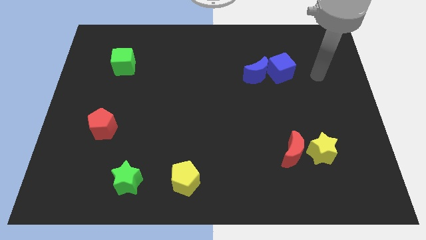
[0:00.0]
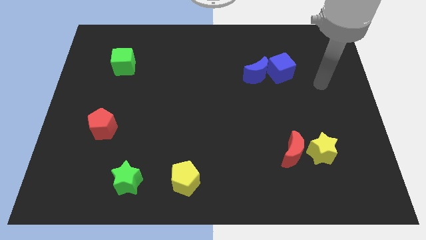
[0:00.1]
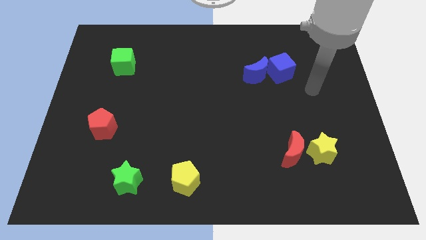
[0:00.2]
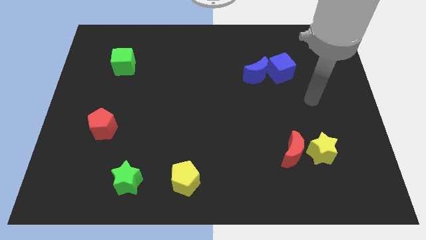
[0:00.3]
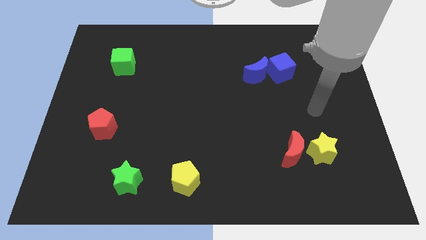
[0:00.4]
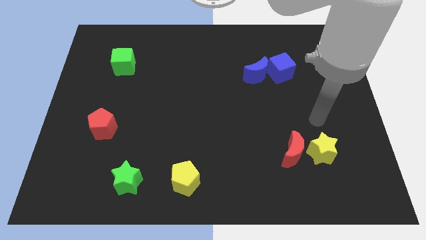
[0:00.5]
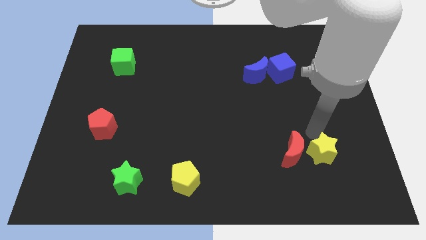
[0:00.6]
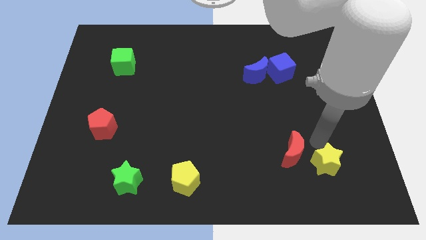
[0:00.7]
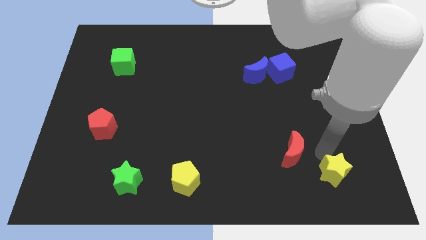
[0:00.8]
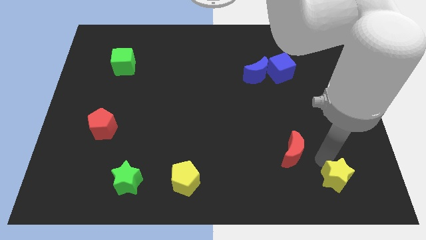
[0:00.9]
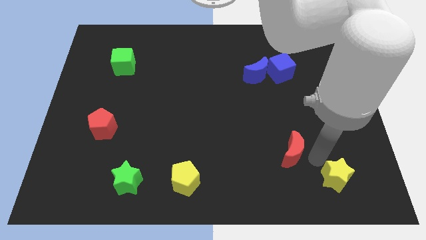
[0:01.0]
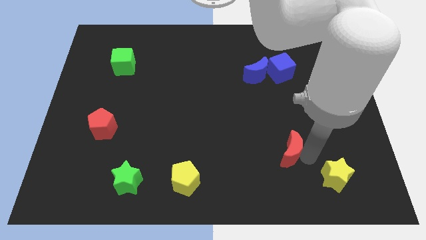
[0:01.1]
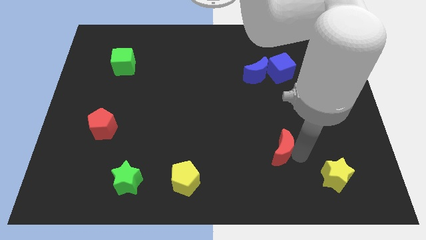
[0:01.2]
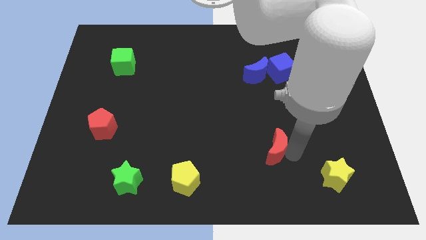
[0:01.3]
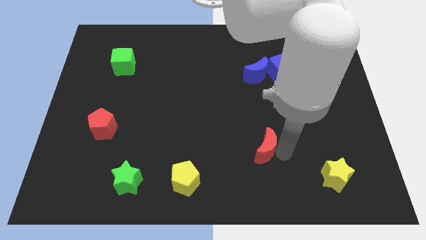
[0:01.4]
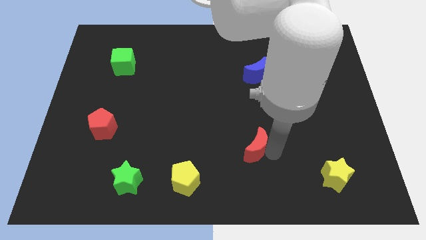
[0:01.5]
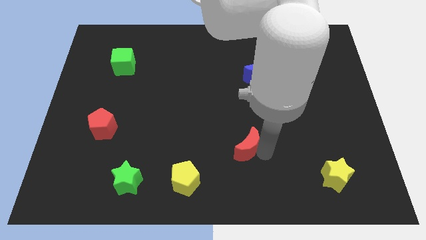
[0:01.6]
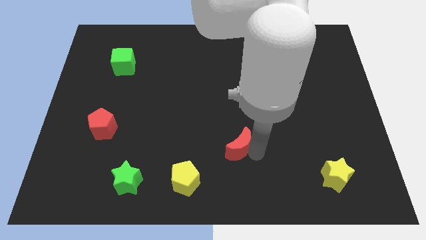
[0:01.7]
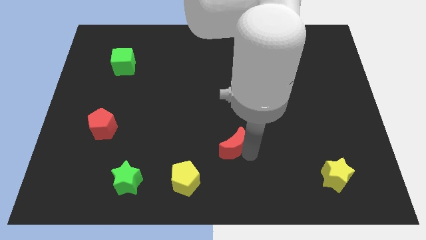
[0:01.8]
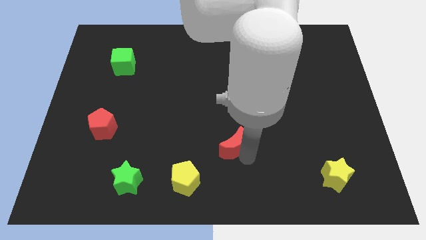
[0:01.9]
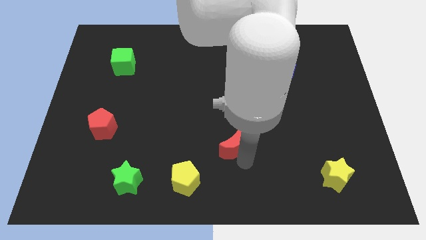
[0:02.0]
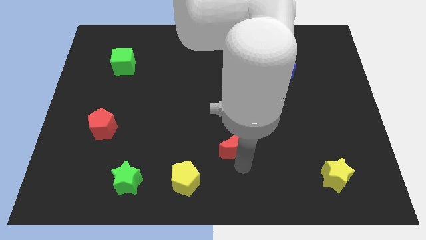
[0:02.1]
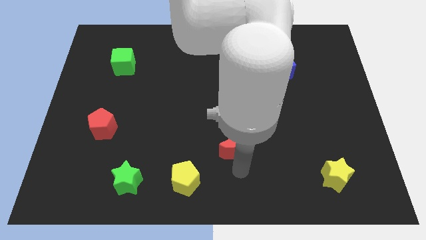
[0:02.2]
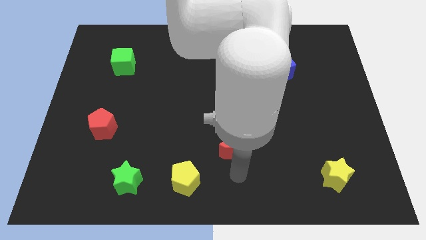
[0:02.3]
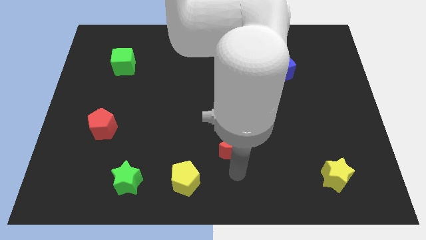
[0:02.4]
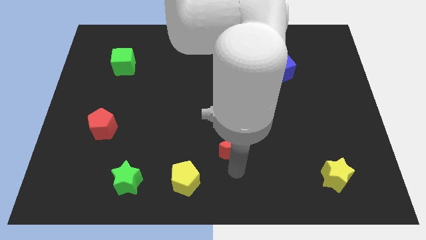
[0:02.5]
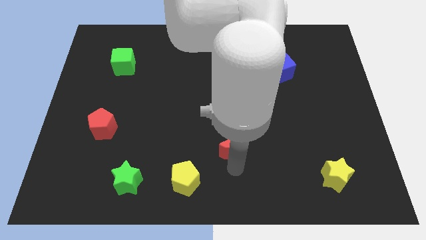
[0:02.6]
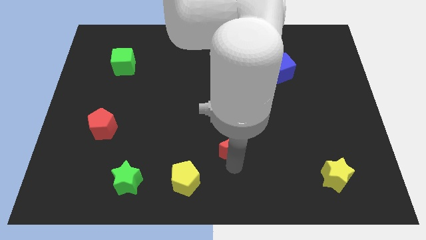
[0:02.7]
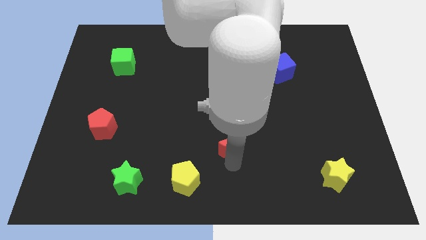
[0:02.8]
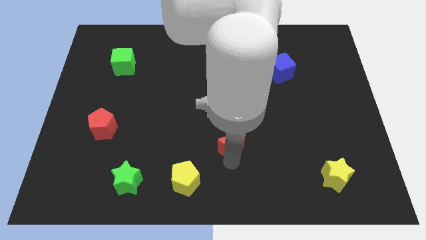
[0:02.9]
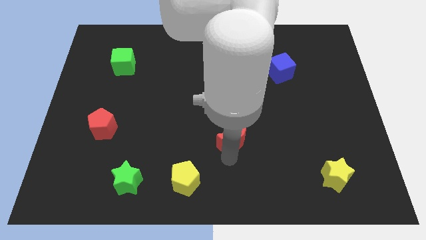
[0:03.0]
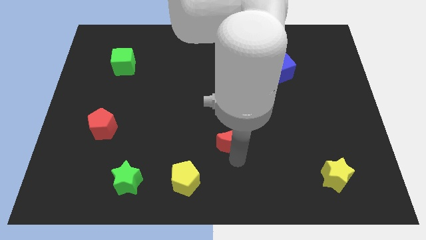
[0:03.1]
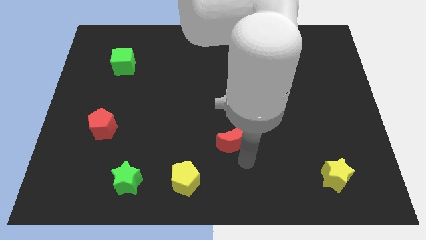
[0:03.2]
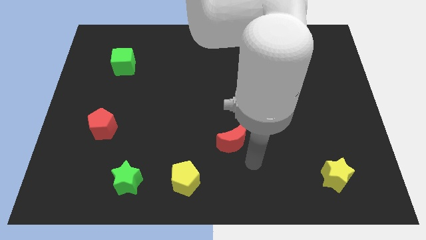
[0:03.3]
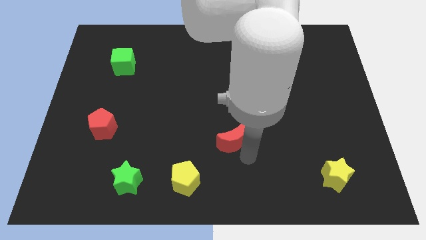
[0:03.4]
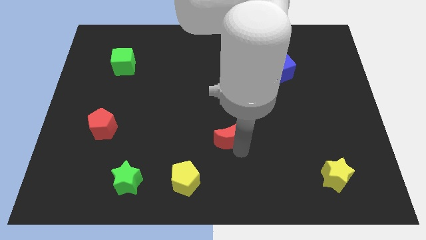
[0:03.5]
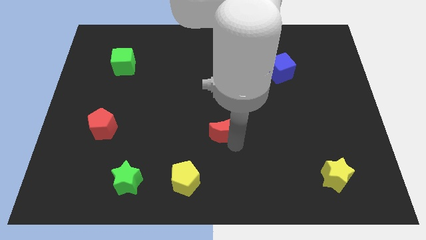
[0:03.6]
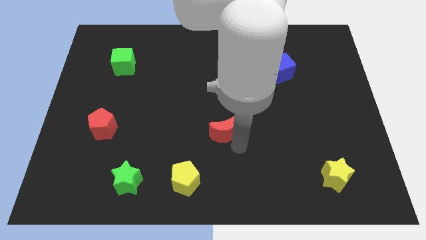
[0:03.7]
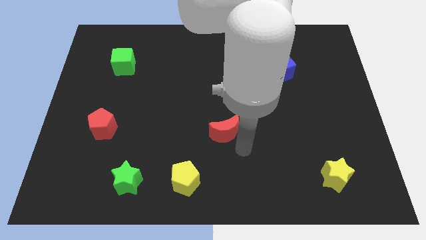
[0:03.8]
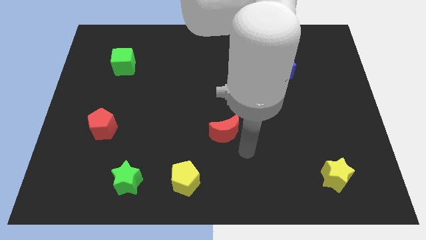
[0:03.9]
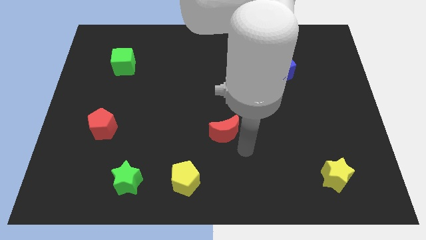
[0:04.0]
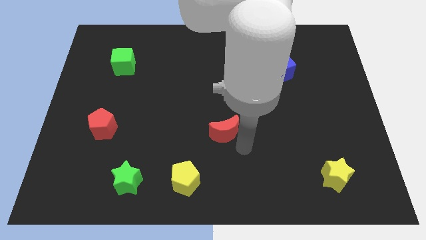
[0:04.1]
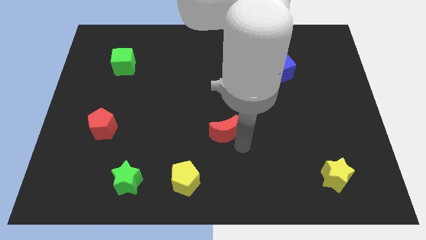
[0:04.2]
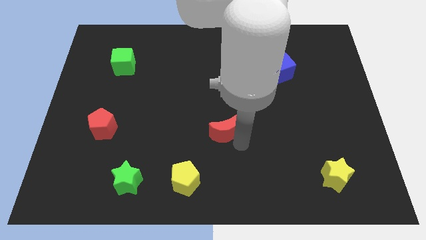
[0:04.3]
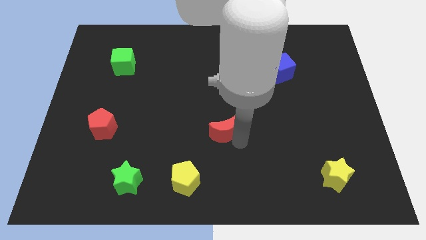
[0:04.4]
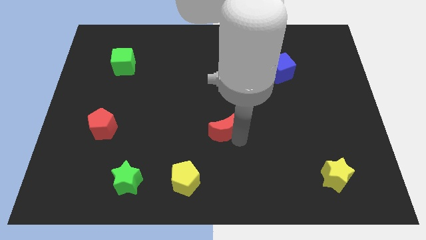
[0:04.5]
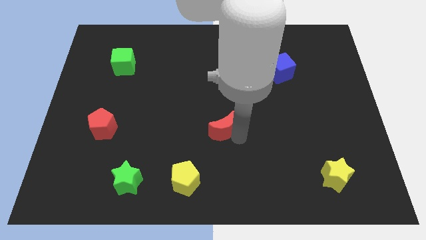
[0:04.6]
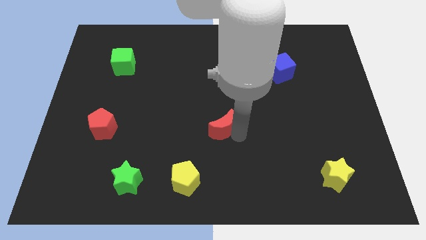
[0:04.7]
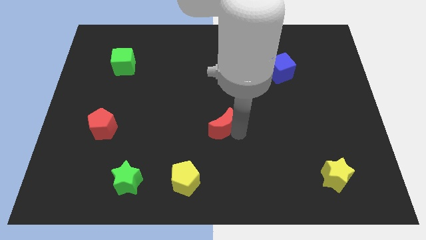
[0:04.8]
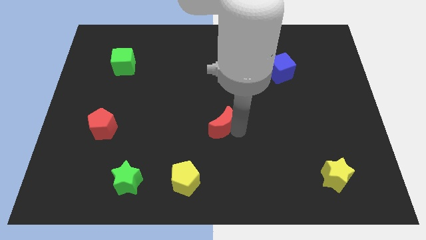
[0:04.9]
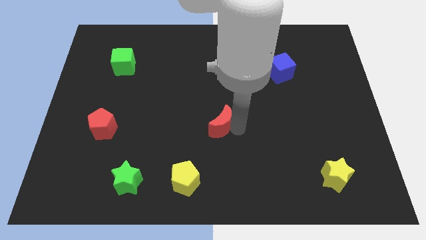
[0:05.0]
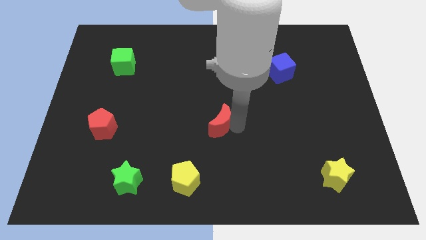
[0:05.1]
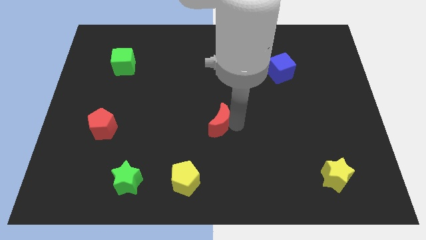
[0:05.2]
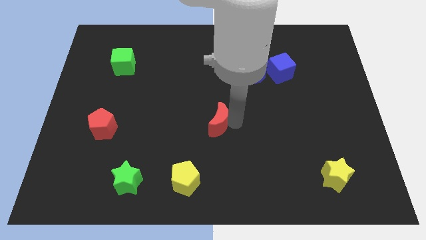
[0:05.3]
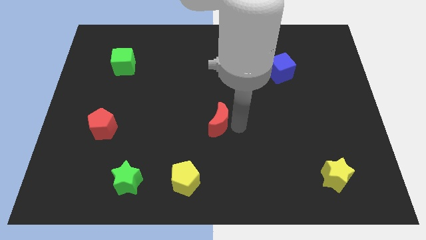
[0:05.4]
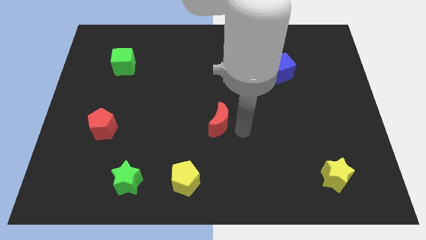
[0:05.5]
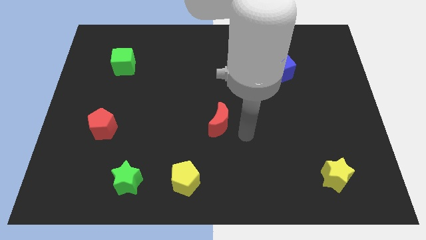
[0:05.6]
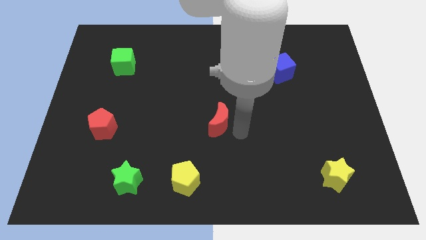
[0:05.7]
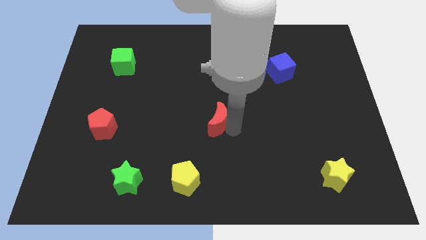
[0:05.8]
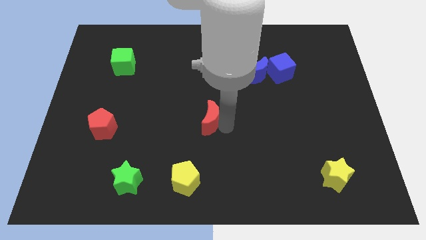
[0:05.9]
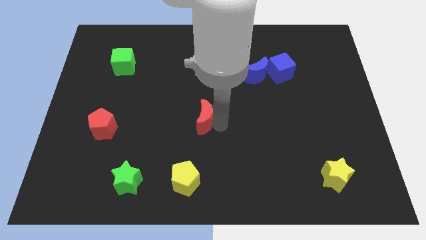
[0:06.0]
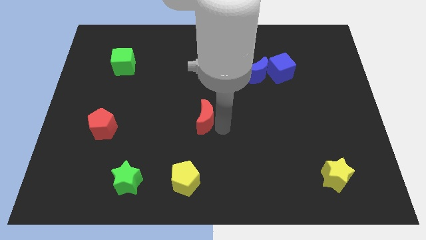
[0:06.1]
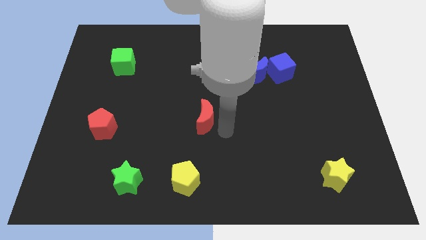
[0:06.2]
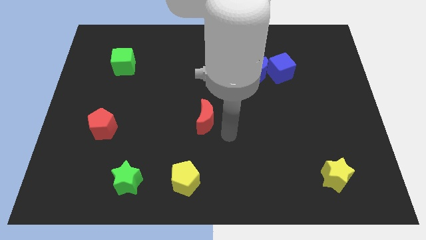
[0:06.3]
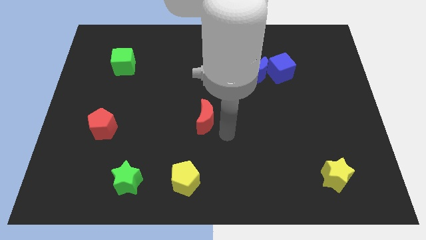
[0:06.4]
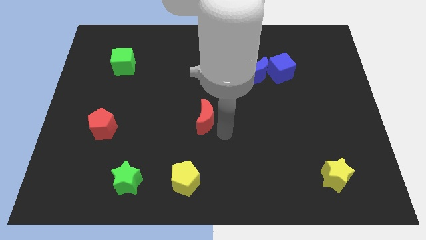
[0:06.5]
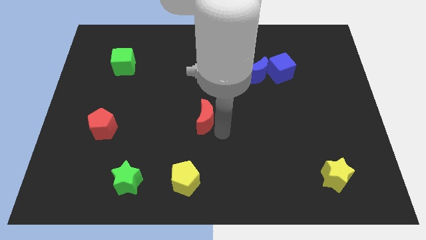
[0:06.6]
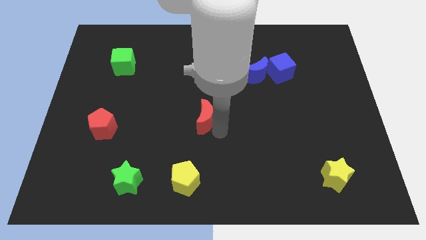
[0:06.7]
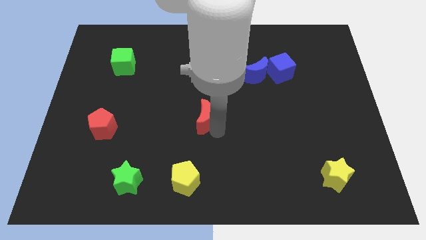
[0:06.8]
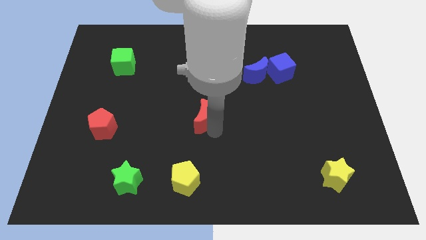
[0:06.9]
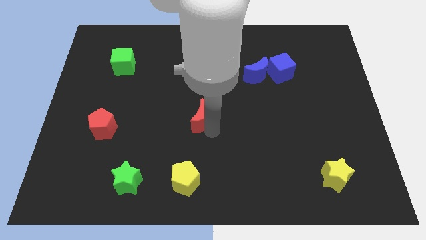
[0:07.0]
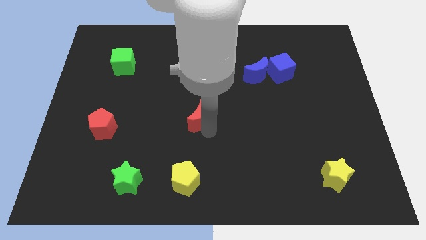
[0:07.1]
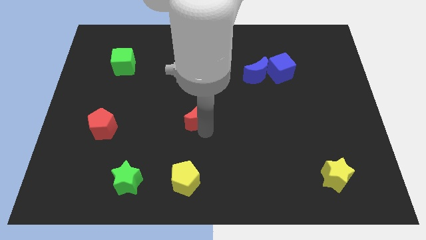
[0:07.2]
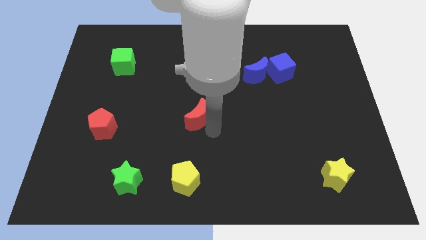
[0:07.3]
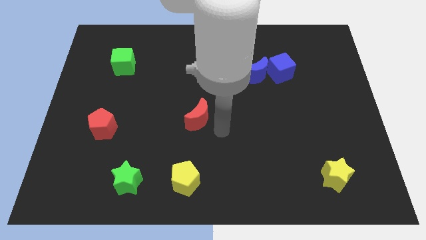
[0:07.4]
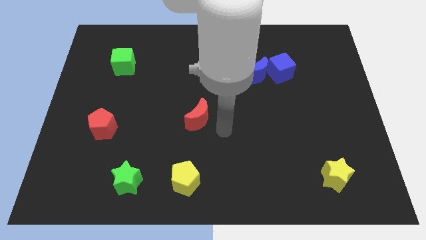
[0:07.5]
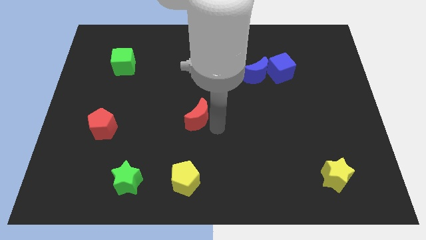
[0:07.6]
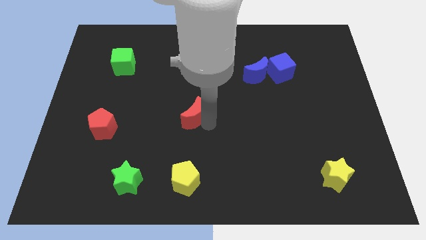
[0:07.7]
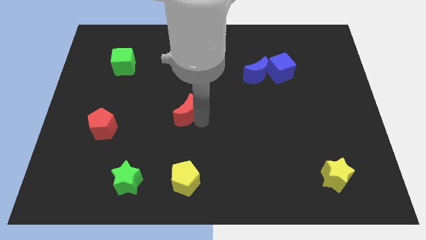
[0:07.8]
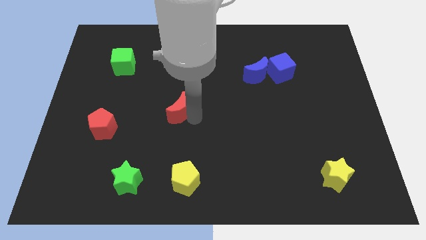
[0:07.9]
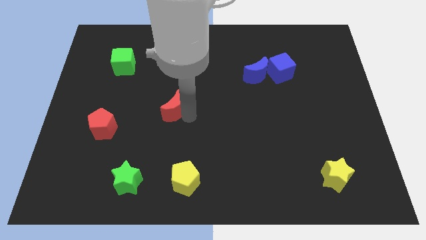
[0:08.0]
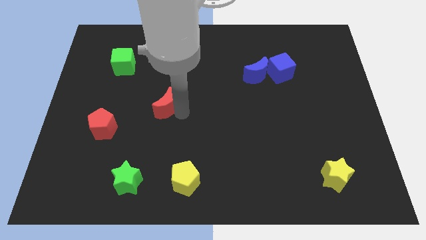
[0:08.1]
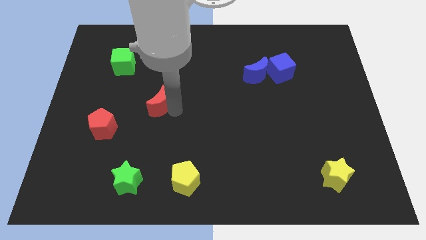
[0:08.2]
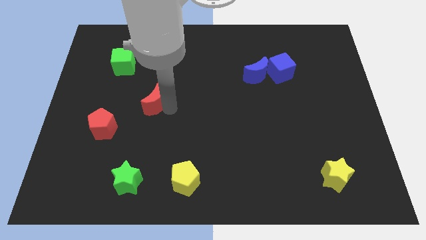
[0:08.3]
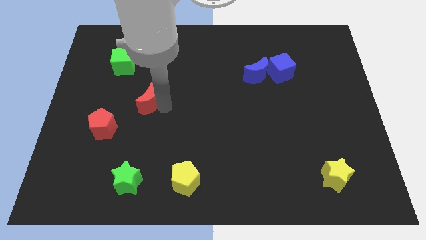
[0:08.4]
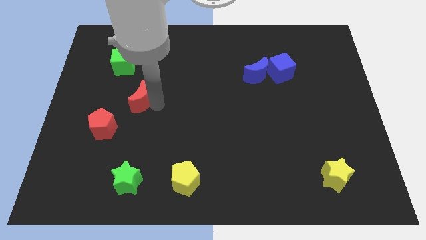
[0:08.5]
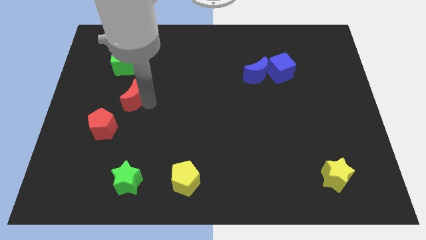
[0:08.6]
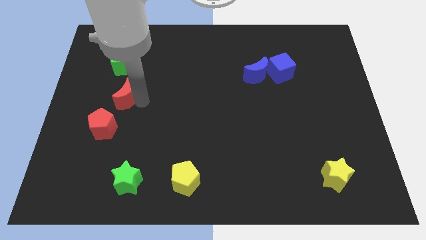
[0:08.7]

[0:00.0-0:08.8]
push the red moon to the top of the red pentagon
